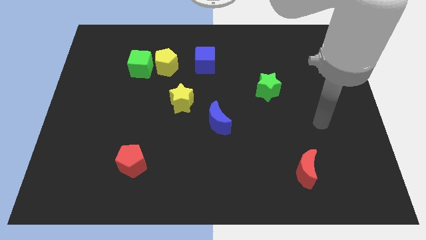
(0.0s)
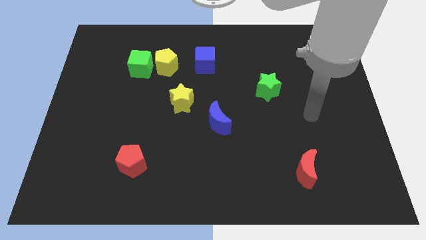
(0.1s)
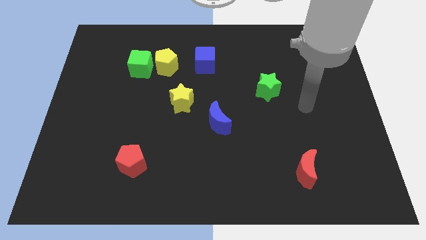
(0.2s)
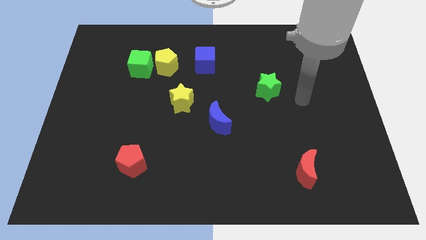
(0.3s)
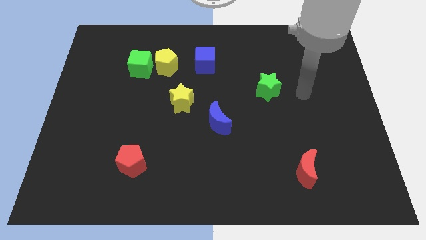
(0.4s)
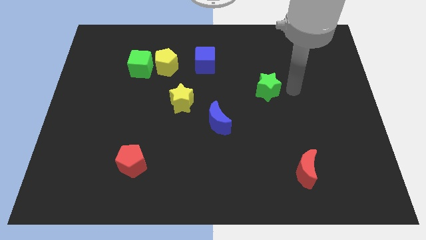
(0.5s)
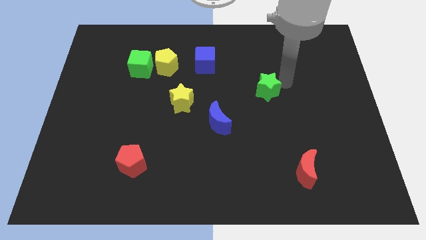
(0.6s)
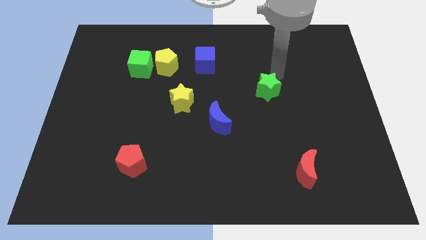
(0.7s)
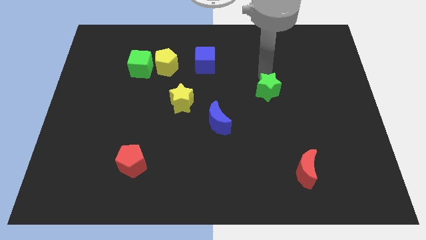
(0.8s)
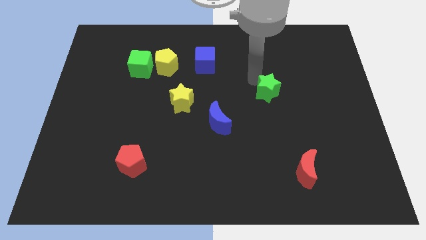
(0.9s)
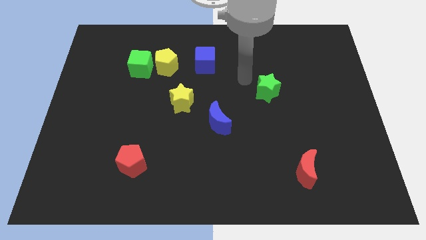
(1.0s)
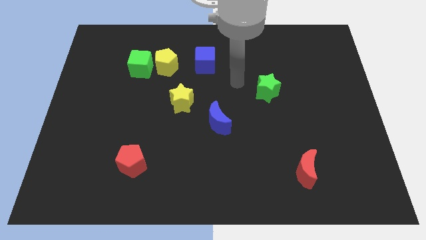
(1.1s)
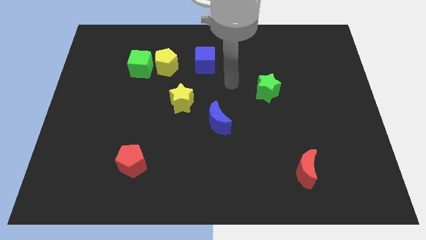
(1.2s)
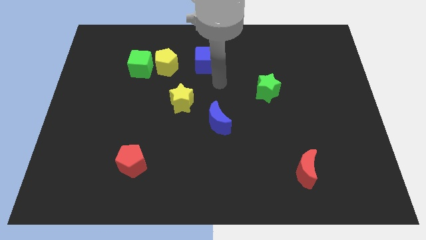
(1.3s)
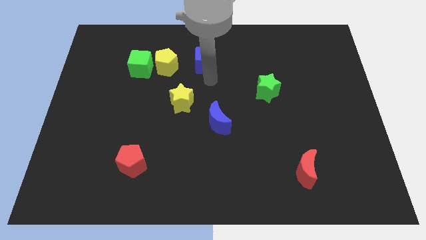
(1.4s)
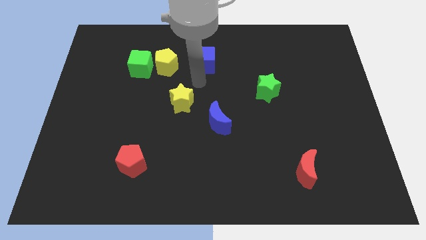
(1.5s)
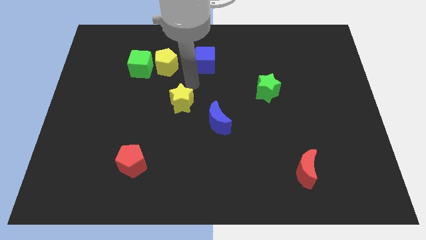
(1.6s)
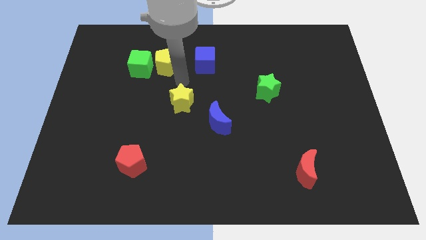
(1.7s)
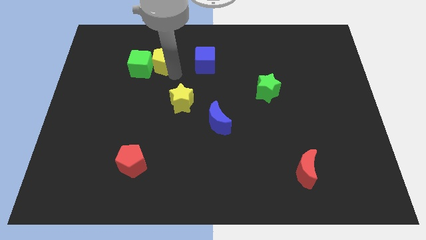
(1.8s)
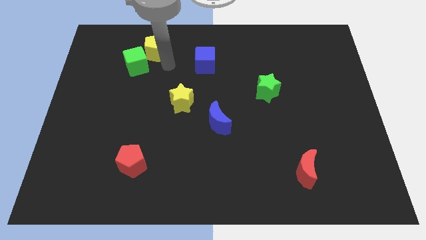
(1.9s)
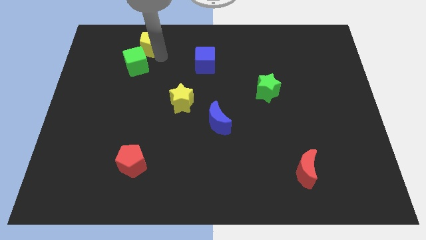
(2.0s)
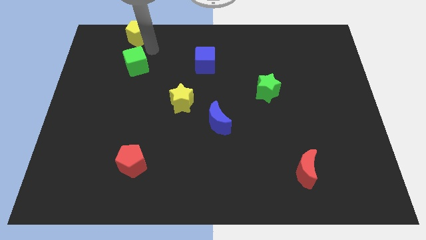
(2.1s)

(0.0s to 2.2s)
move the green cube away from the yellow pentagon

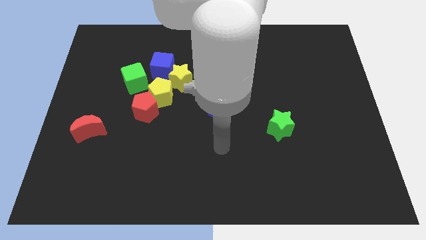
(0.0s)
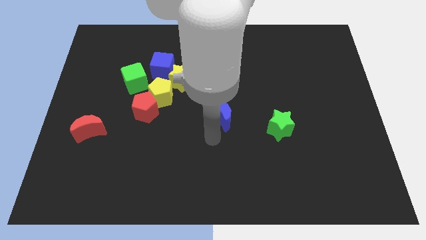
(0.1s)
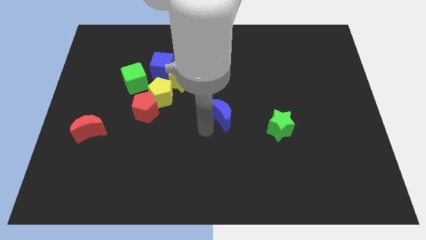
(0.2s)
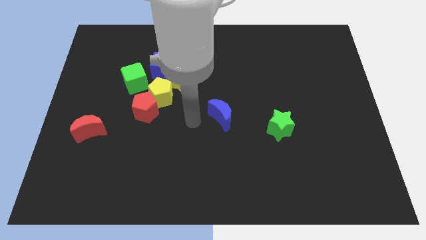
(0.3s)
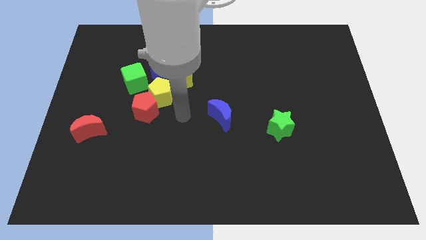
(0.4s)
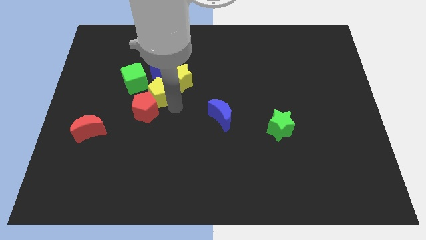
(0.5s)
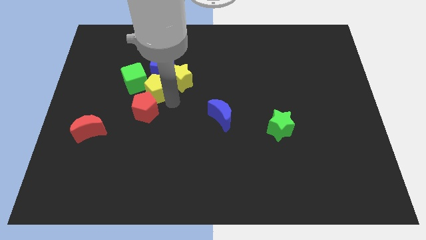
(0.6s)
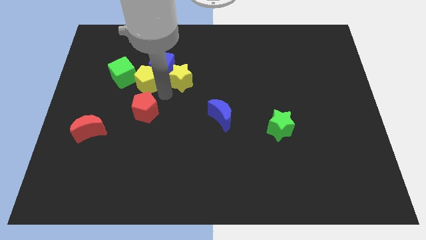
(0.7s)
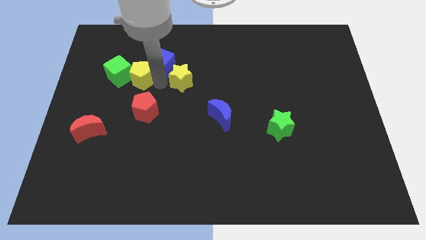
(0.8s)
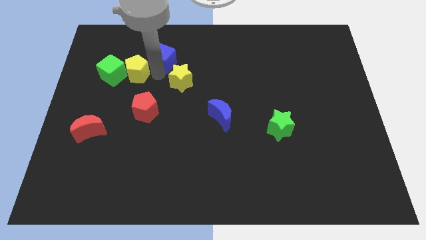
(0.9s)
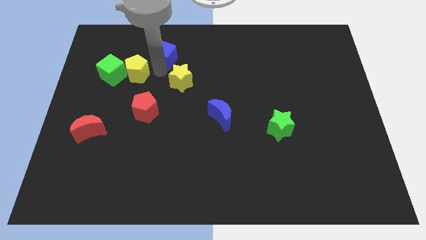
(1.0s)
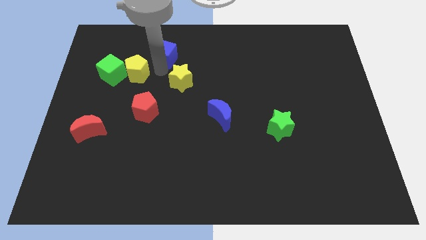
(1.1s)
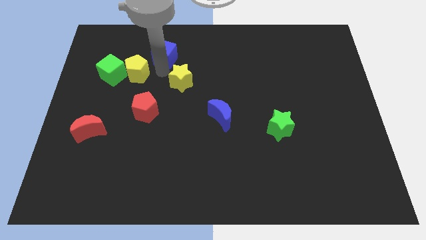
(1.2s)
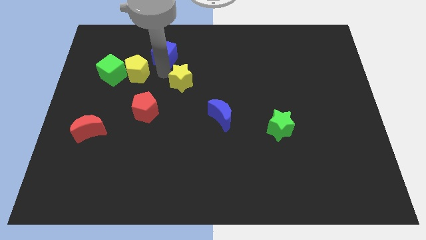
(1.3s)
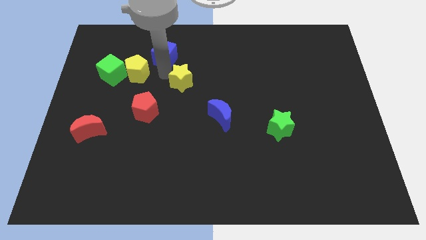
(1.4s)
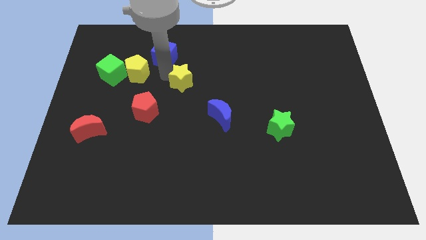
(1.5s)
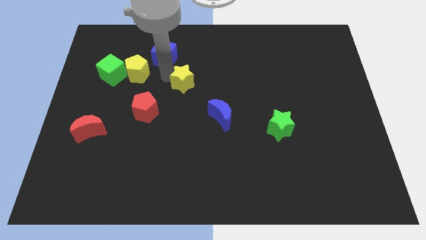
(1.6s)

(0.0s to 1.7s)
pull the yellow star apart from the blue cube and yellow pentagon

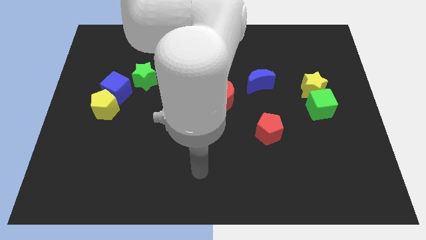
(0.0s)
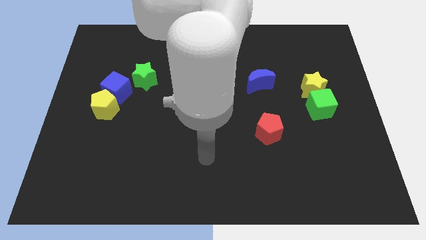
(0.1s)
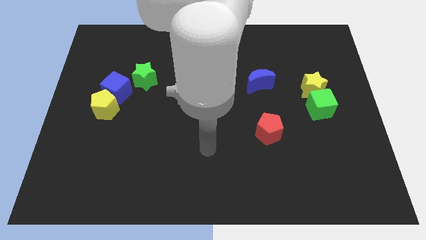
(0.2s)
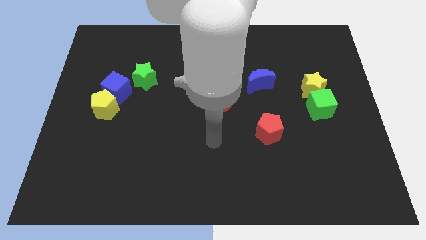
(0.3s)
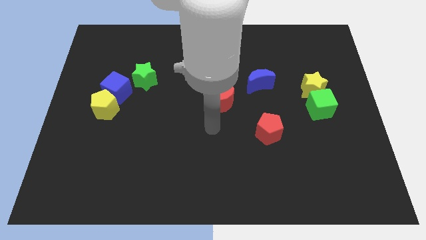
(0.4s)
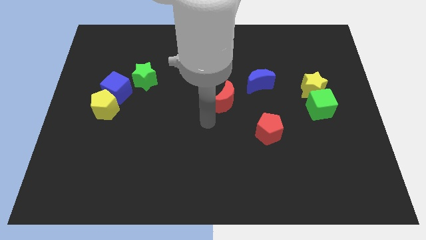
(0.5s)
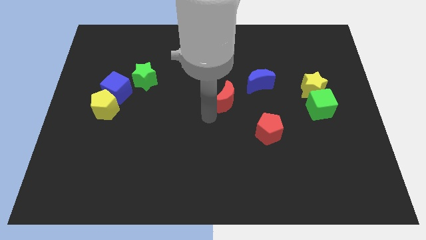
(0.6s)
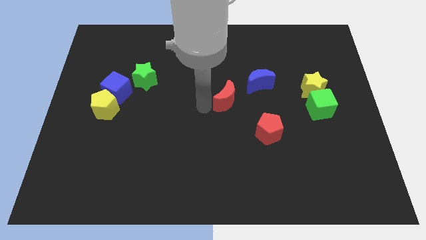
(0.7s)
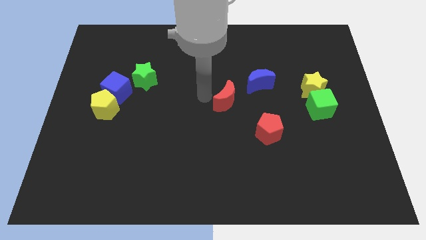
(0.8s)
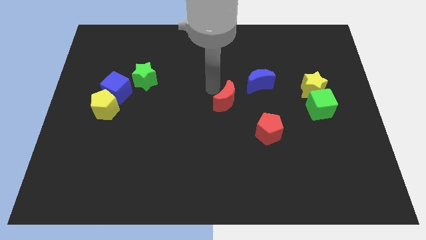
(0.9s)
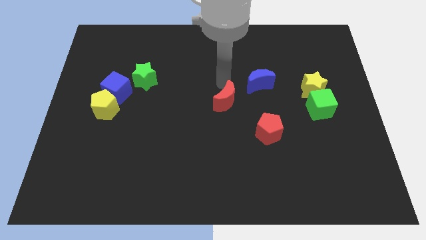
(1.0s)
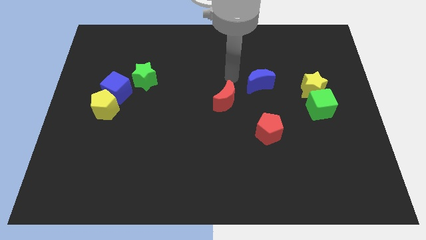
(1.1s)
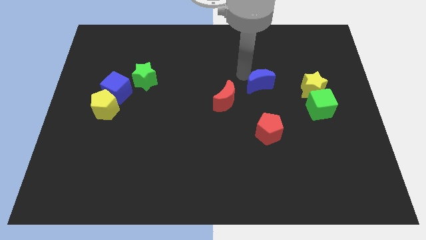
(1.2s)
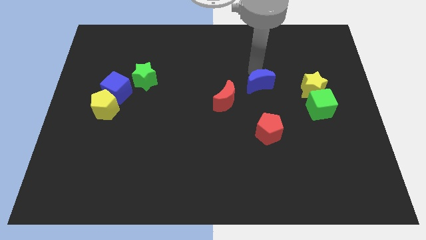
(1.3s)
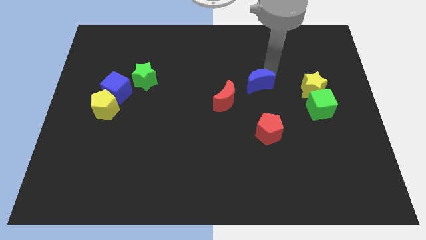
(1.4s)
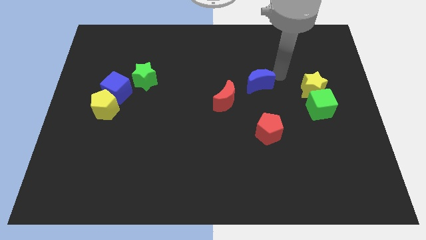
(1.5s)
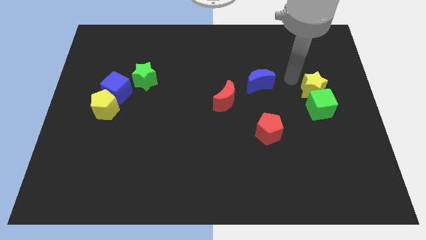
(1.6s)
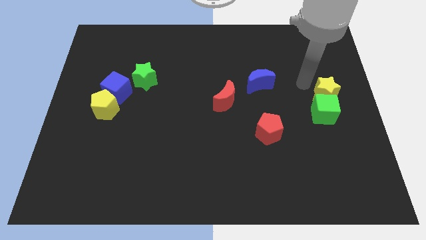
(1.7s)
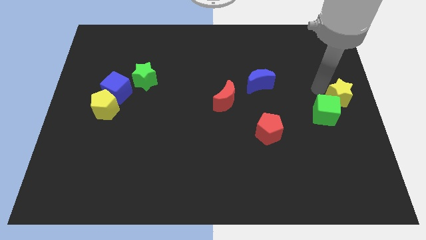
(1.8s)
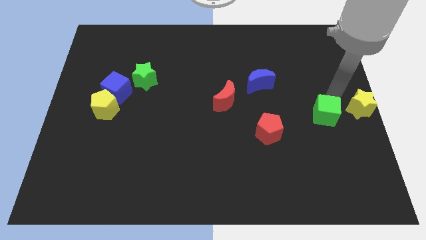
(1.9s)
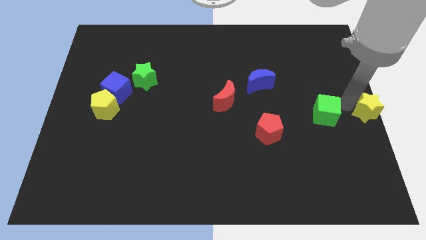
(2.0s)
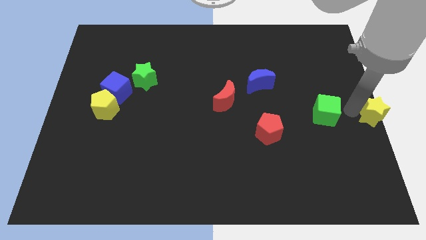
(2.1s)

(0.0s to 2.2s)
separate the green cube from the yellow star

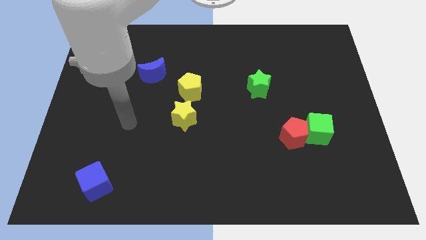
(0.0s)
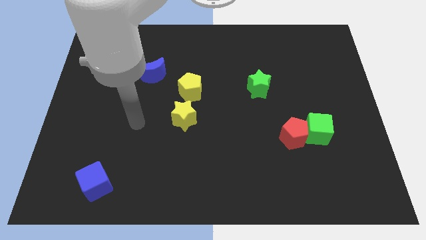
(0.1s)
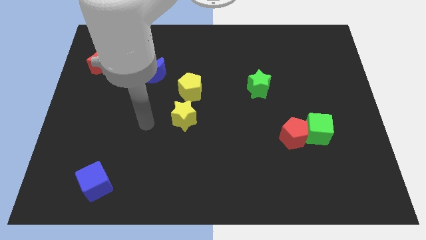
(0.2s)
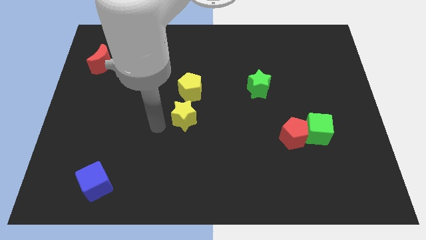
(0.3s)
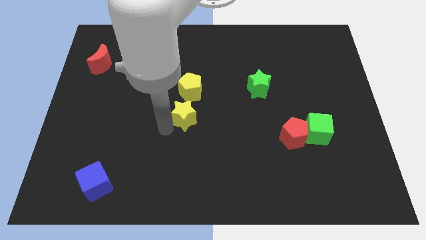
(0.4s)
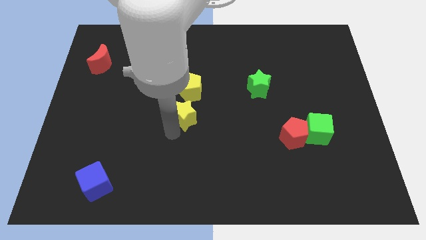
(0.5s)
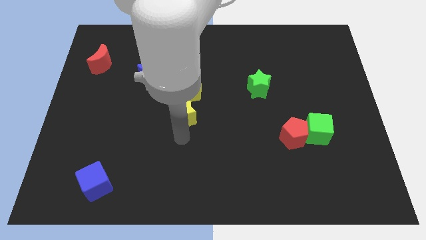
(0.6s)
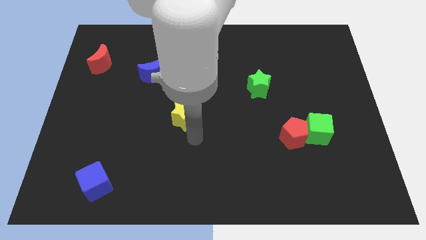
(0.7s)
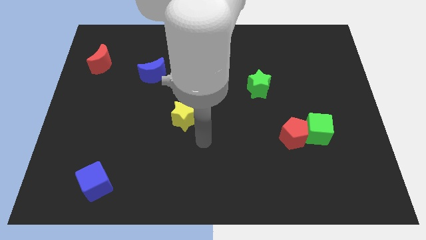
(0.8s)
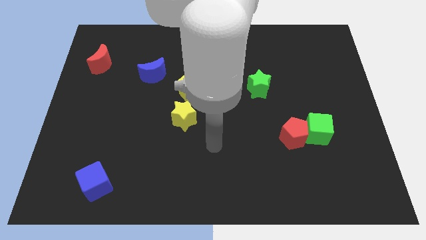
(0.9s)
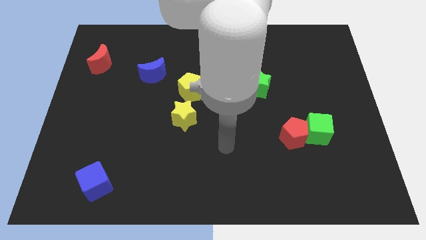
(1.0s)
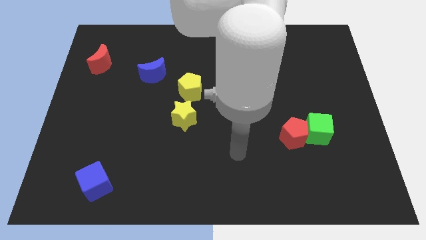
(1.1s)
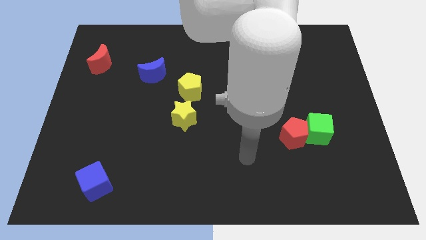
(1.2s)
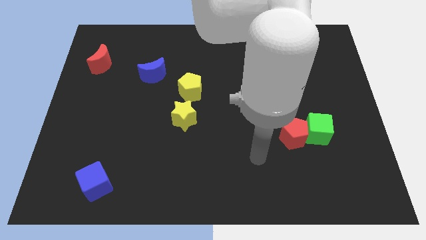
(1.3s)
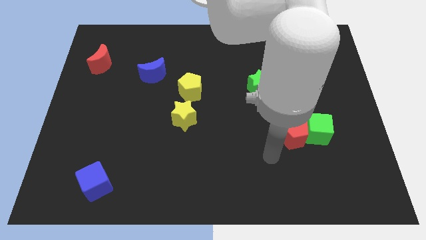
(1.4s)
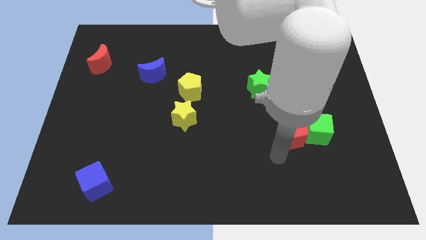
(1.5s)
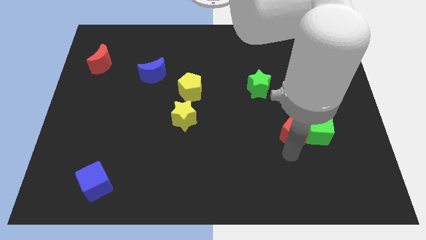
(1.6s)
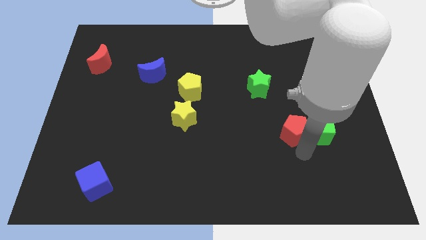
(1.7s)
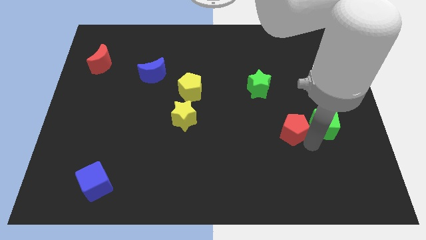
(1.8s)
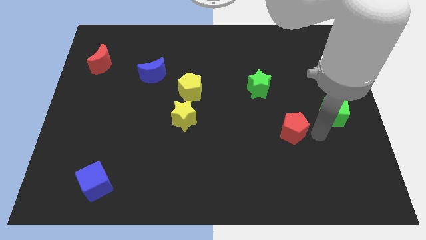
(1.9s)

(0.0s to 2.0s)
pull the red pentagon apart from the green cube

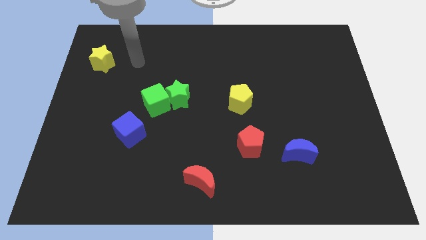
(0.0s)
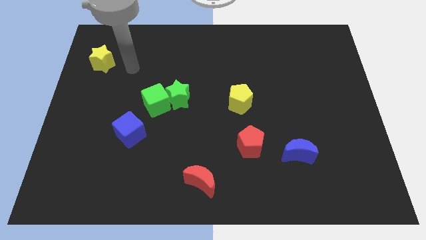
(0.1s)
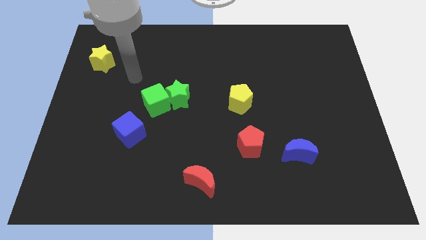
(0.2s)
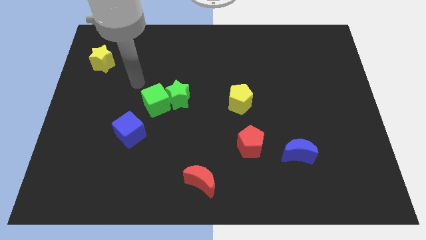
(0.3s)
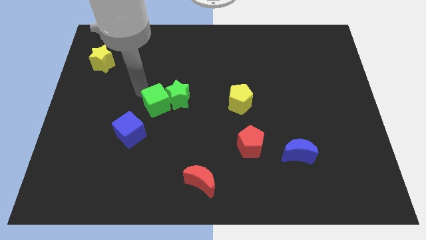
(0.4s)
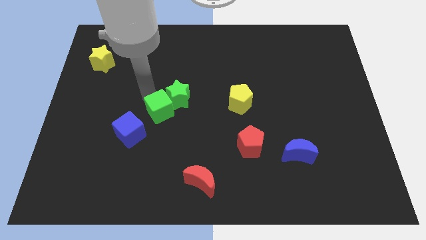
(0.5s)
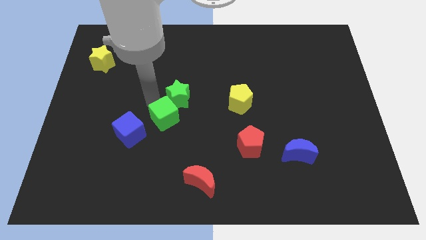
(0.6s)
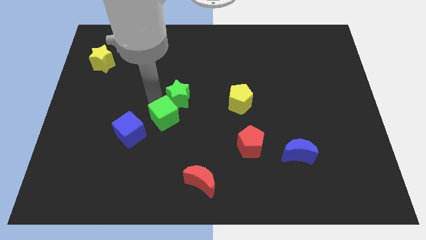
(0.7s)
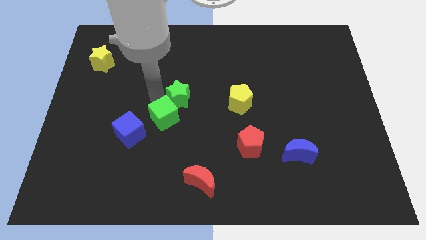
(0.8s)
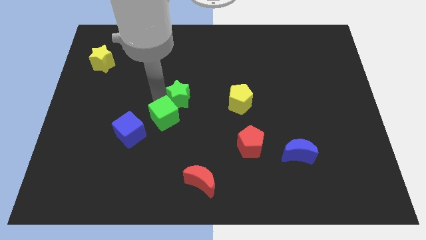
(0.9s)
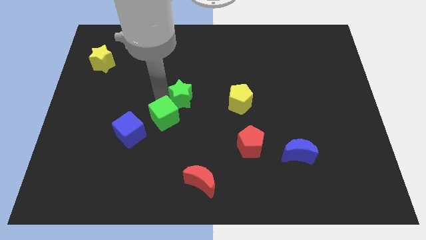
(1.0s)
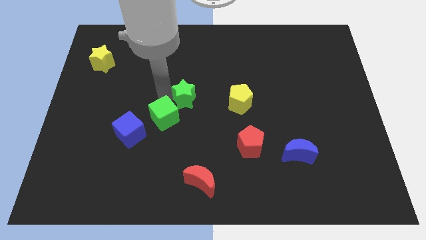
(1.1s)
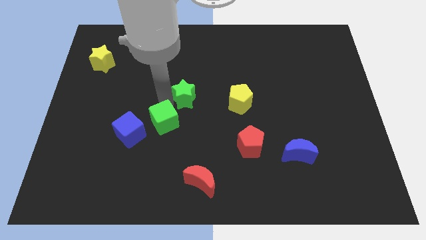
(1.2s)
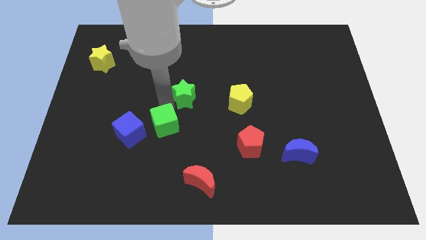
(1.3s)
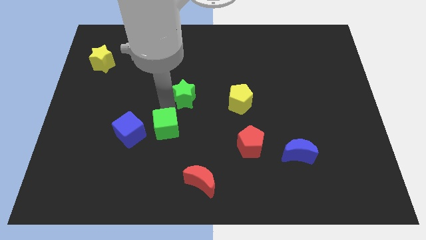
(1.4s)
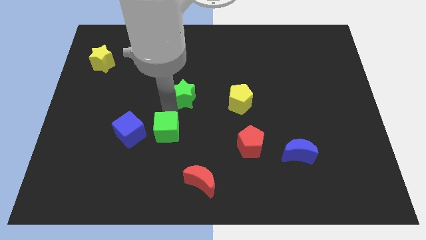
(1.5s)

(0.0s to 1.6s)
move the green star away from the green cube
